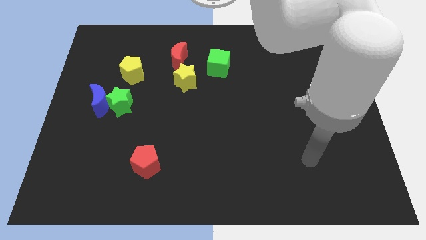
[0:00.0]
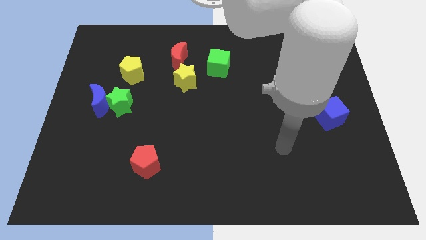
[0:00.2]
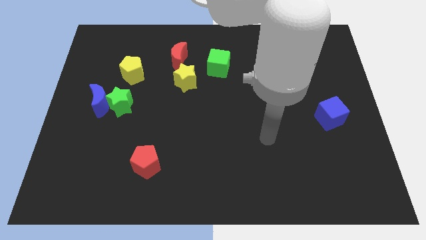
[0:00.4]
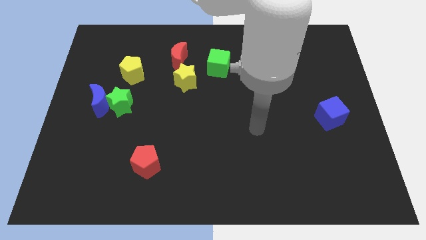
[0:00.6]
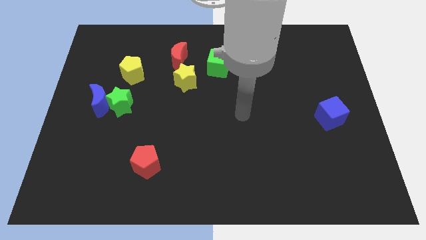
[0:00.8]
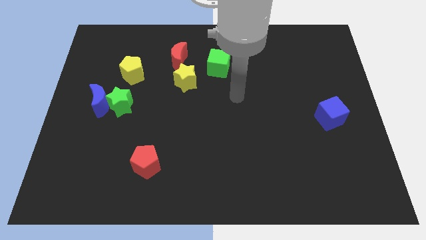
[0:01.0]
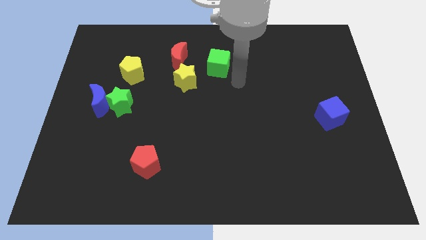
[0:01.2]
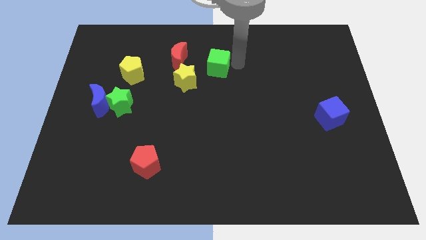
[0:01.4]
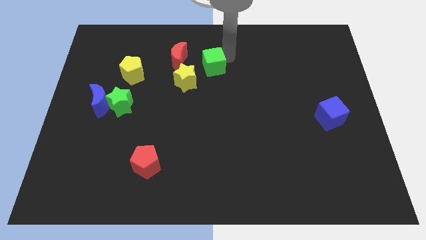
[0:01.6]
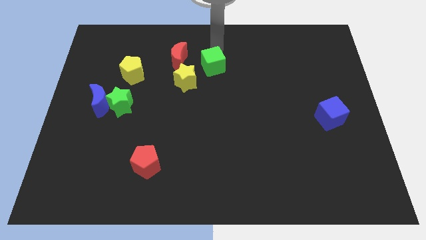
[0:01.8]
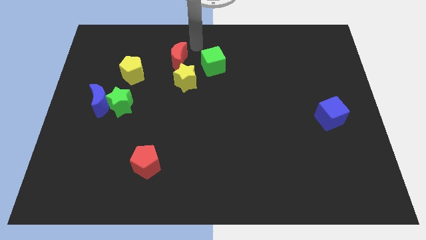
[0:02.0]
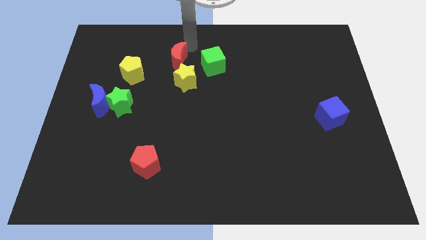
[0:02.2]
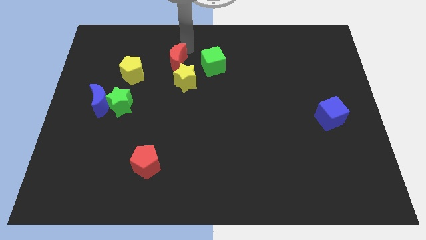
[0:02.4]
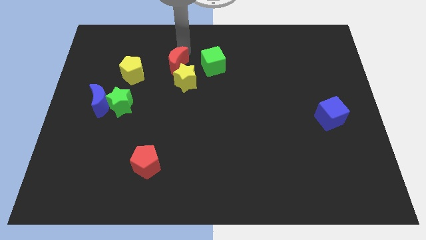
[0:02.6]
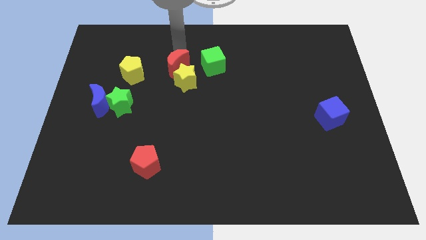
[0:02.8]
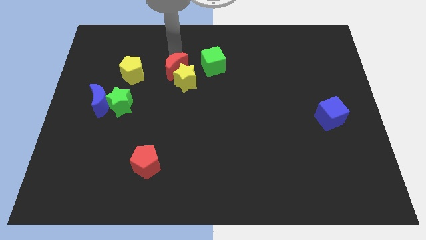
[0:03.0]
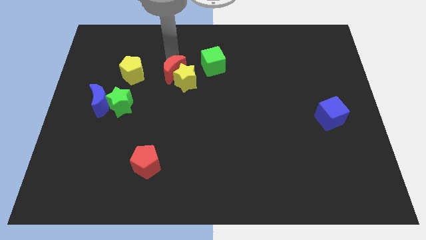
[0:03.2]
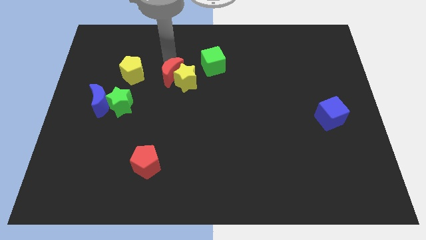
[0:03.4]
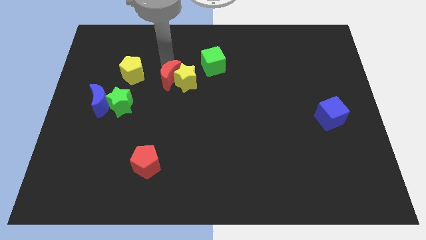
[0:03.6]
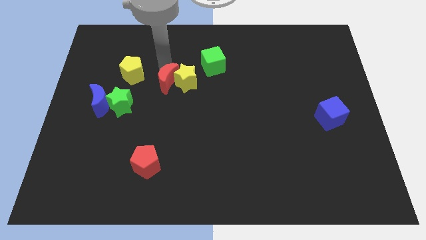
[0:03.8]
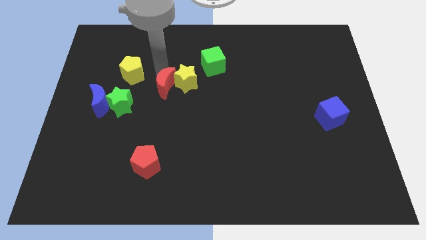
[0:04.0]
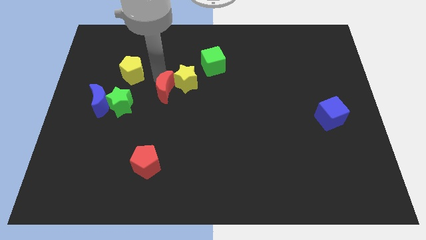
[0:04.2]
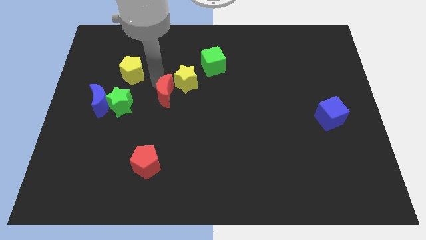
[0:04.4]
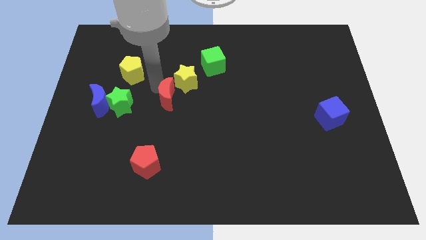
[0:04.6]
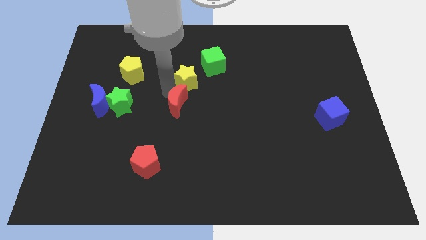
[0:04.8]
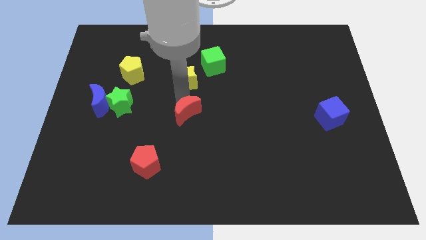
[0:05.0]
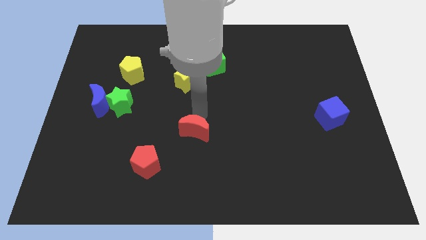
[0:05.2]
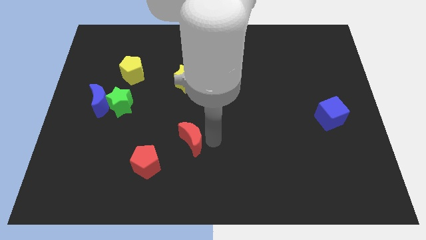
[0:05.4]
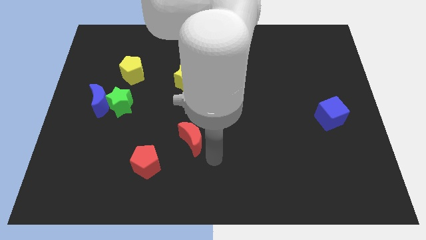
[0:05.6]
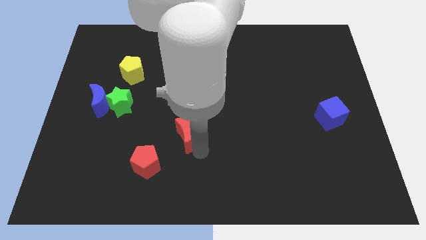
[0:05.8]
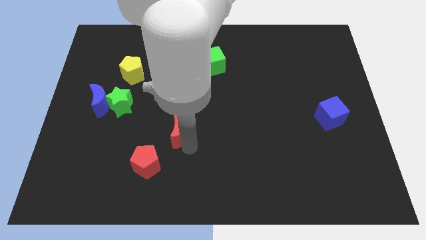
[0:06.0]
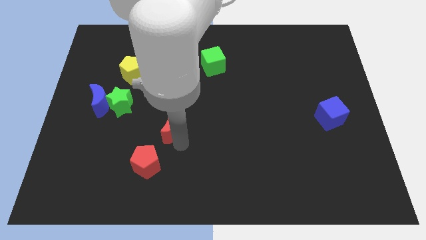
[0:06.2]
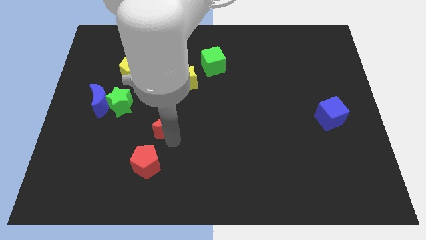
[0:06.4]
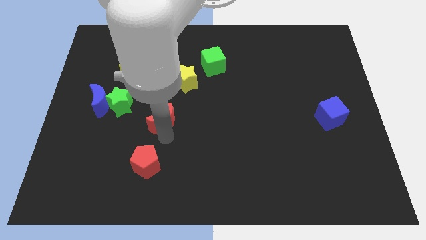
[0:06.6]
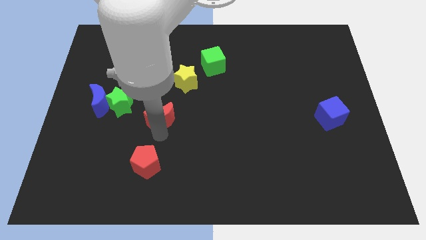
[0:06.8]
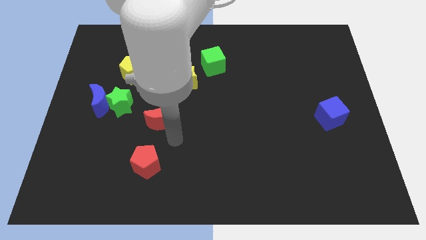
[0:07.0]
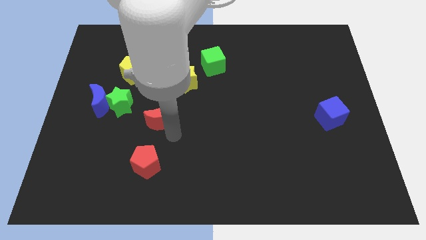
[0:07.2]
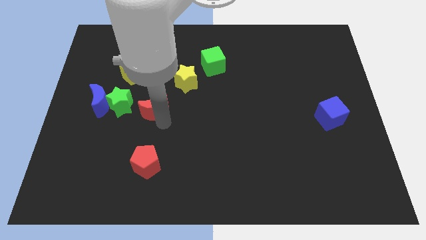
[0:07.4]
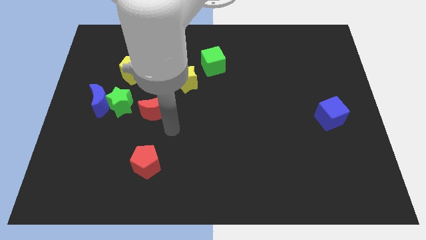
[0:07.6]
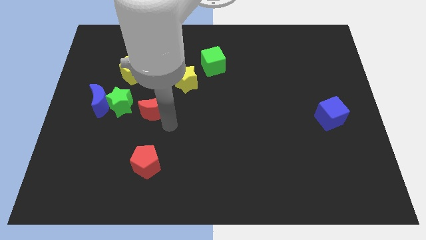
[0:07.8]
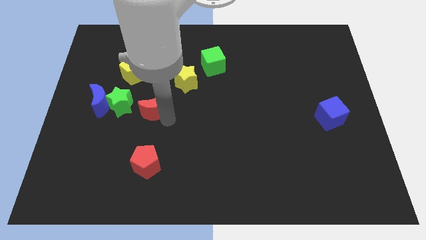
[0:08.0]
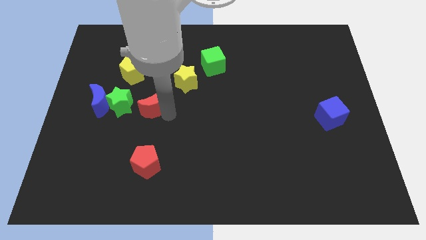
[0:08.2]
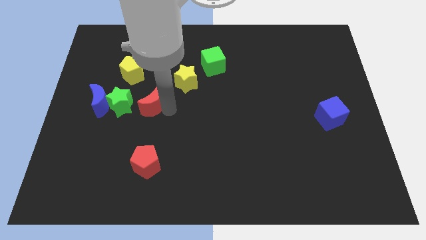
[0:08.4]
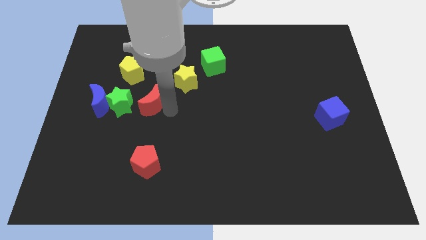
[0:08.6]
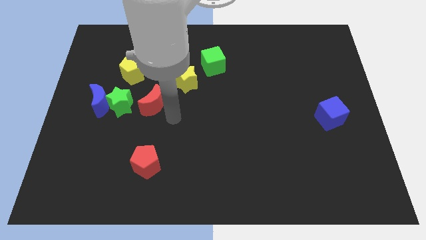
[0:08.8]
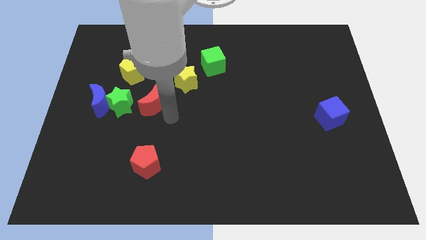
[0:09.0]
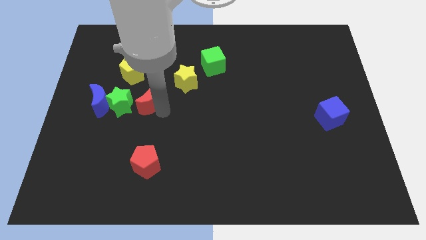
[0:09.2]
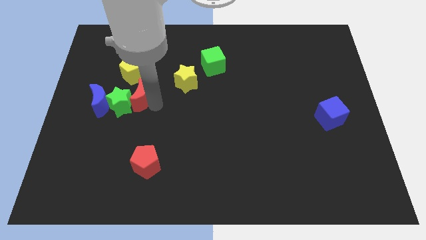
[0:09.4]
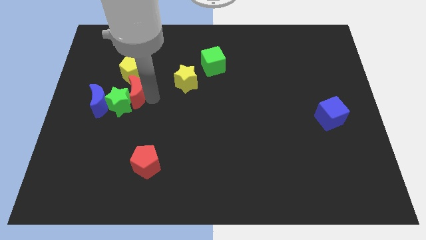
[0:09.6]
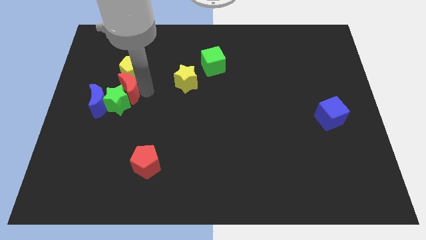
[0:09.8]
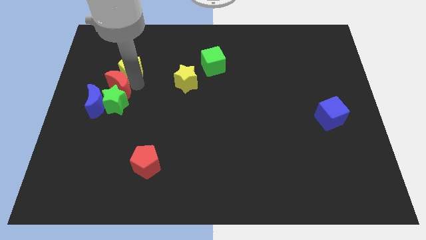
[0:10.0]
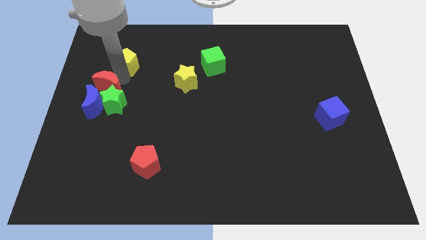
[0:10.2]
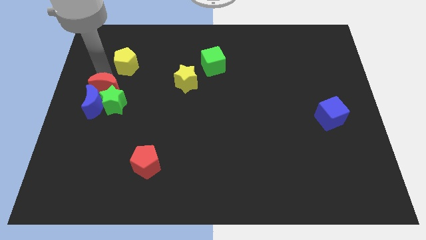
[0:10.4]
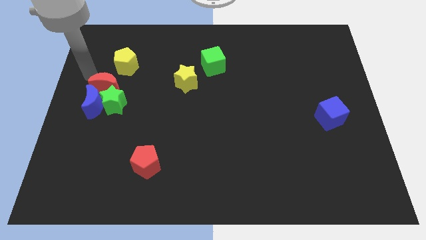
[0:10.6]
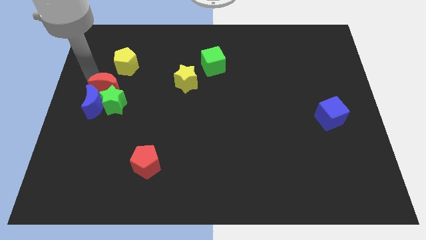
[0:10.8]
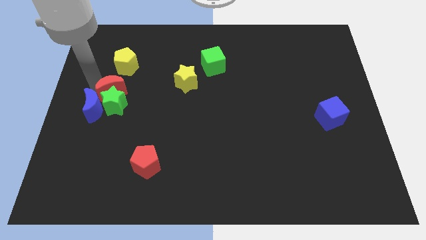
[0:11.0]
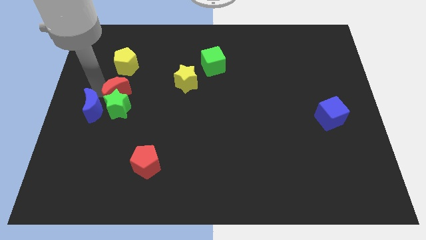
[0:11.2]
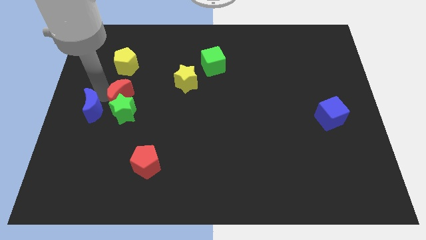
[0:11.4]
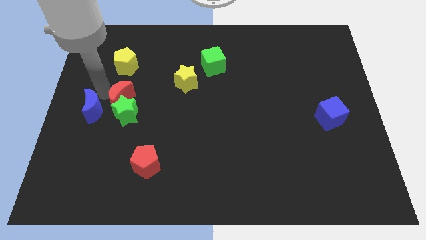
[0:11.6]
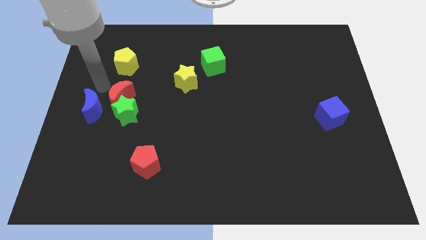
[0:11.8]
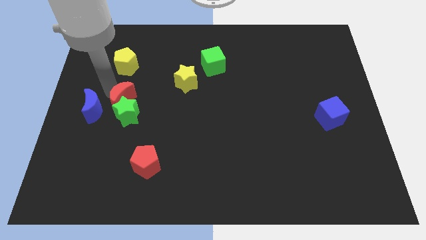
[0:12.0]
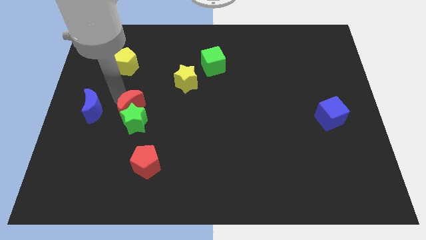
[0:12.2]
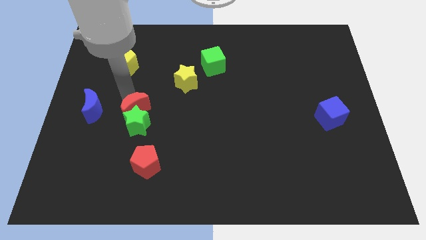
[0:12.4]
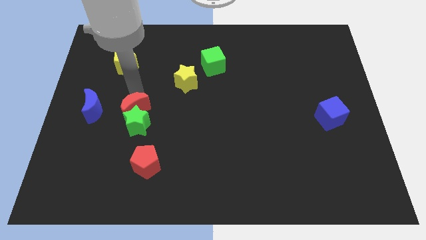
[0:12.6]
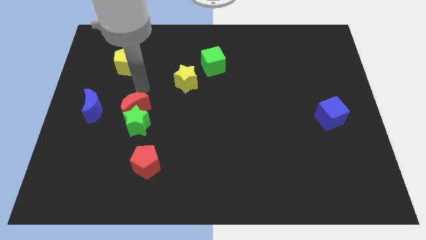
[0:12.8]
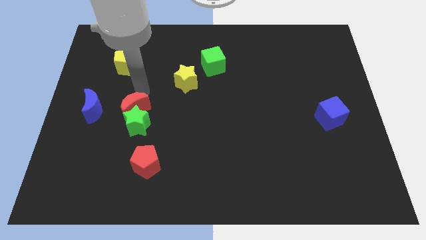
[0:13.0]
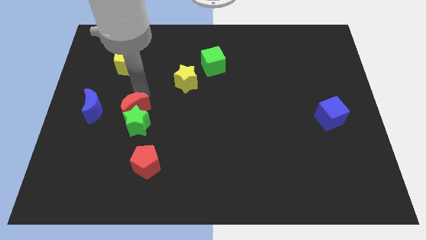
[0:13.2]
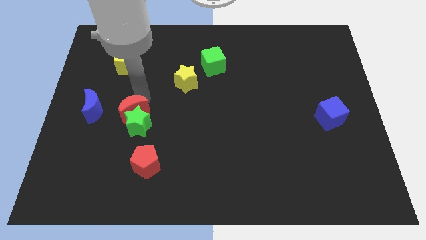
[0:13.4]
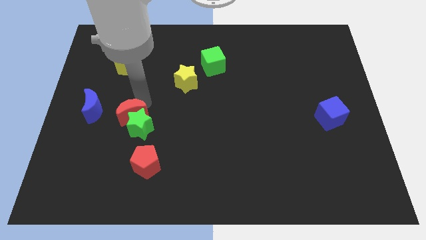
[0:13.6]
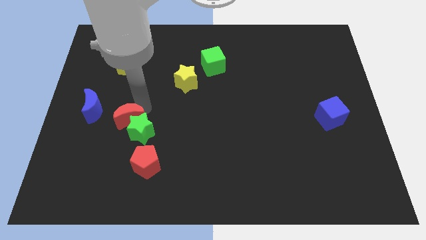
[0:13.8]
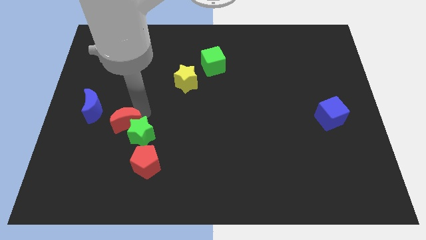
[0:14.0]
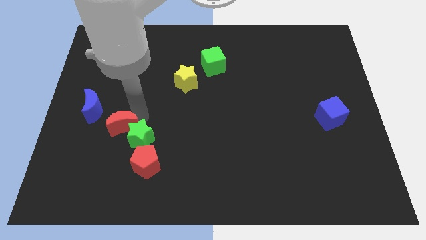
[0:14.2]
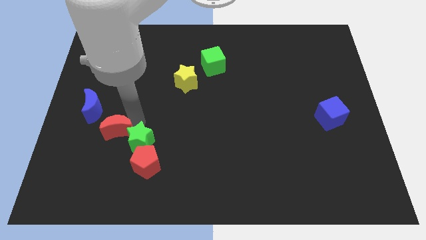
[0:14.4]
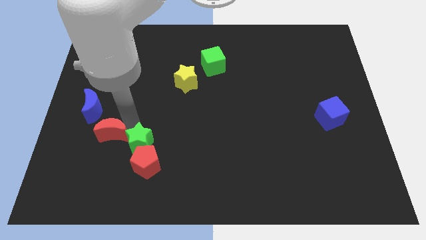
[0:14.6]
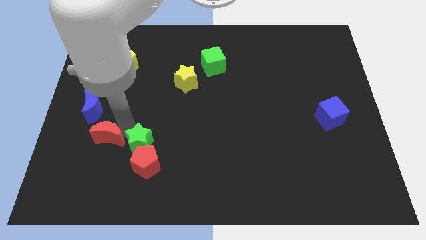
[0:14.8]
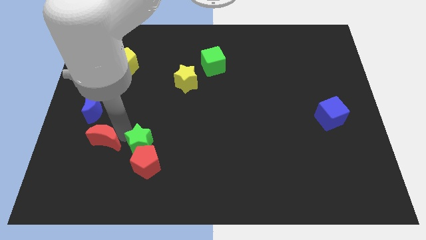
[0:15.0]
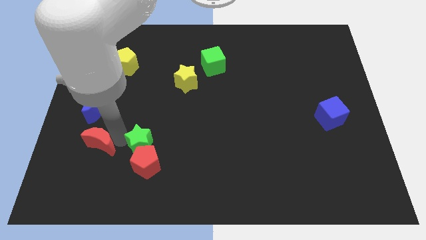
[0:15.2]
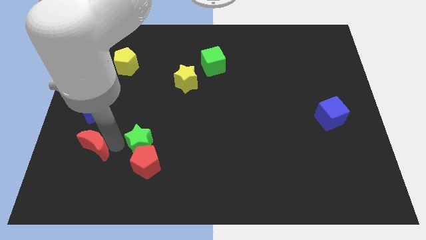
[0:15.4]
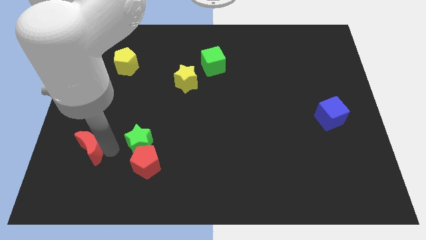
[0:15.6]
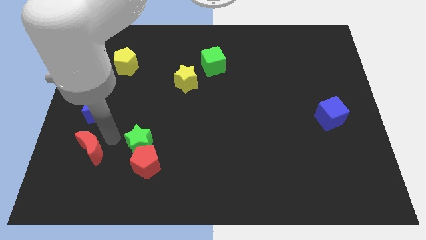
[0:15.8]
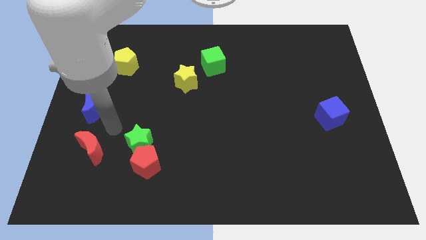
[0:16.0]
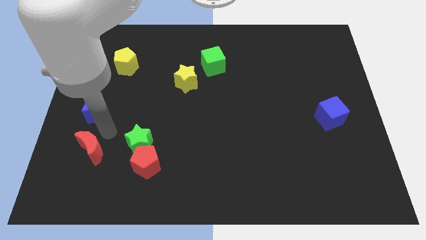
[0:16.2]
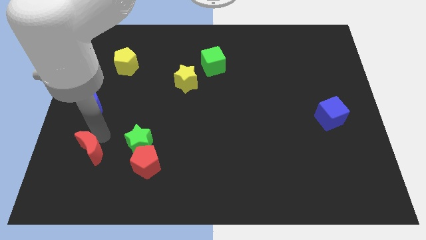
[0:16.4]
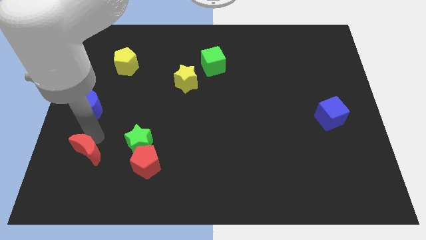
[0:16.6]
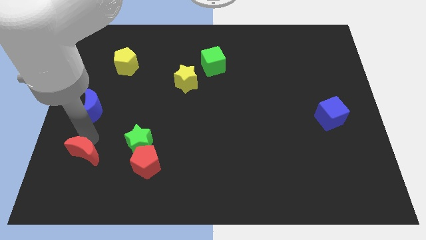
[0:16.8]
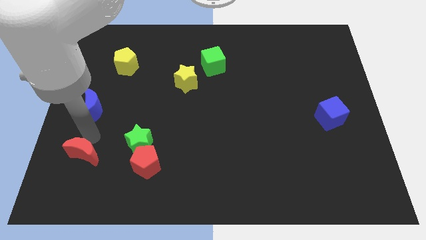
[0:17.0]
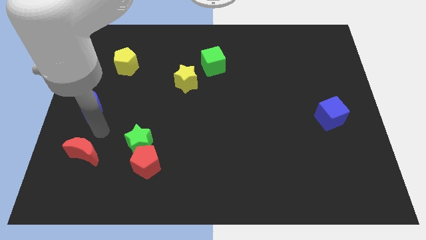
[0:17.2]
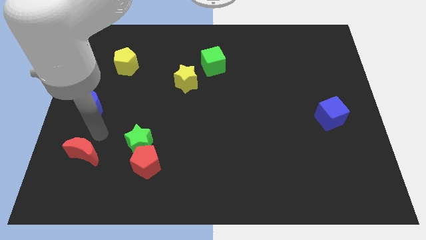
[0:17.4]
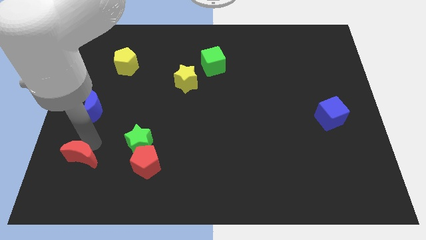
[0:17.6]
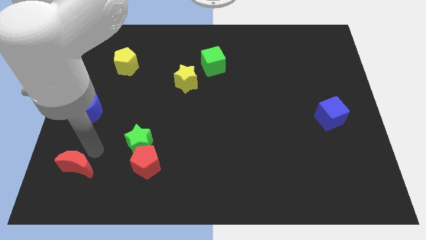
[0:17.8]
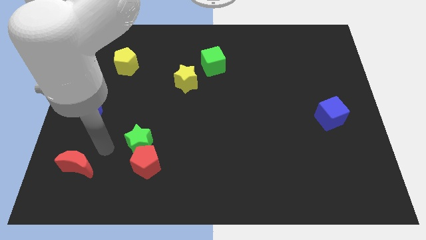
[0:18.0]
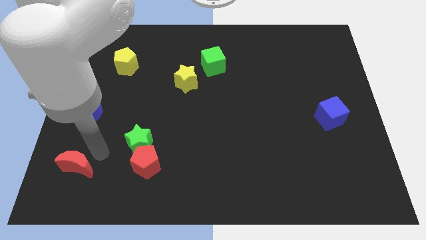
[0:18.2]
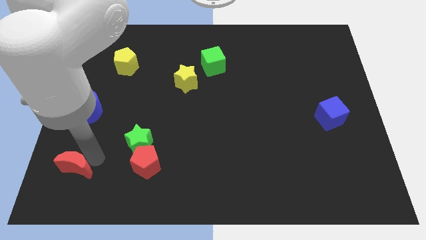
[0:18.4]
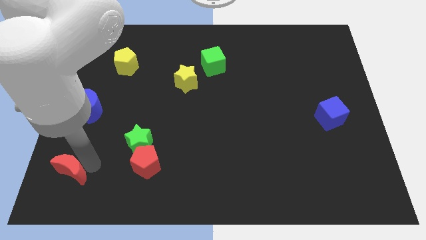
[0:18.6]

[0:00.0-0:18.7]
push the red moon to the bottom left of the board
